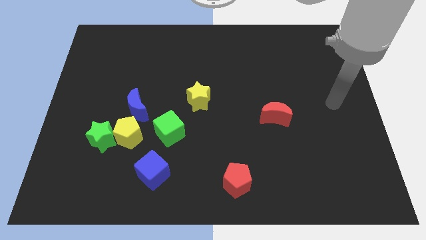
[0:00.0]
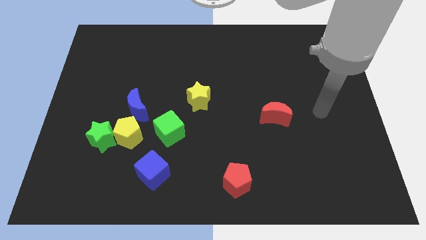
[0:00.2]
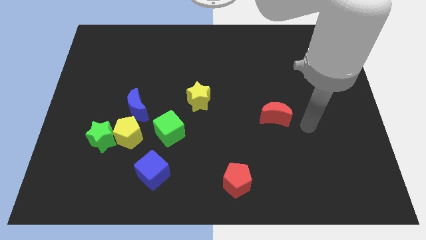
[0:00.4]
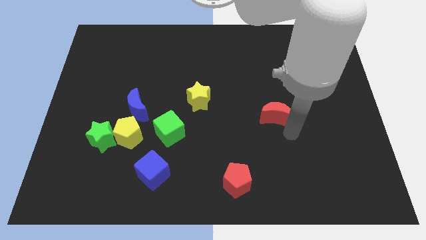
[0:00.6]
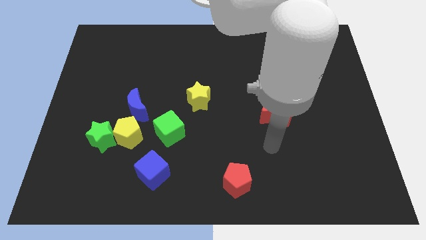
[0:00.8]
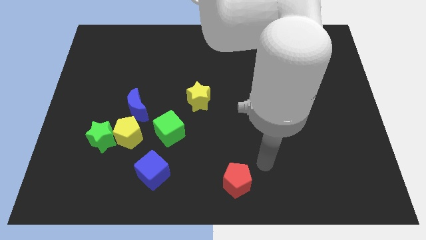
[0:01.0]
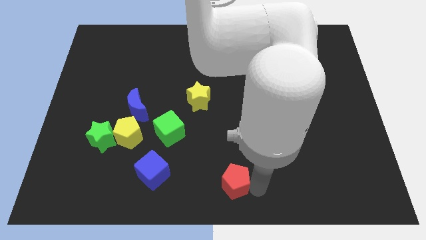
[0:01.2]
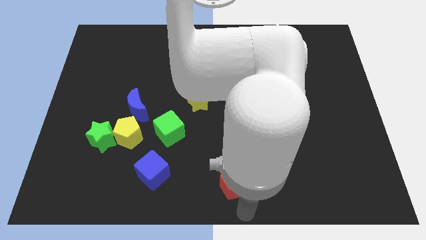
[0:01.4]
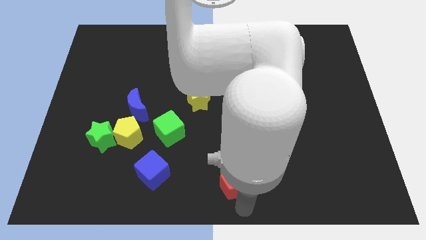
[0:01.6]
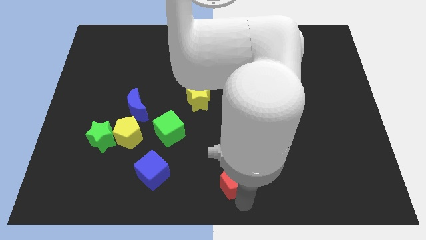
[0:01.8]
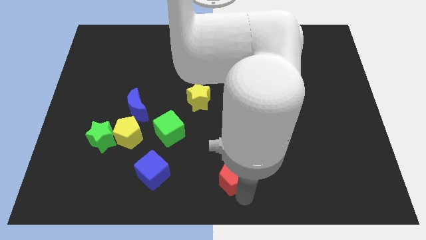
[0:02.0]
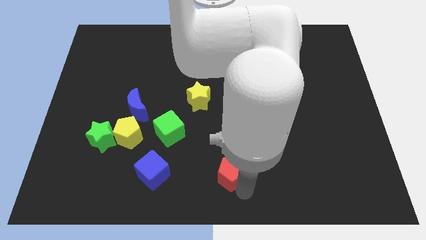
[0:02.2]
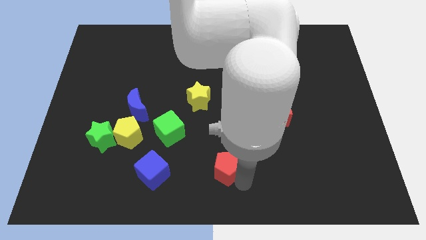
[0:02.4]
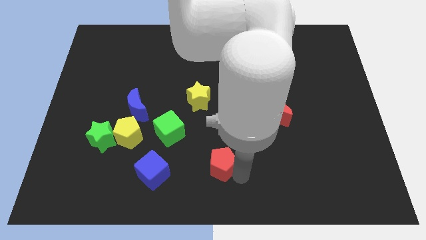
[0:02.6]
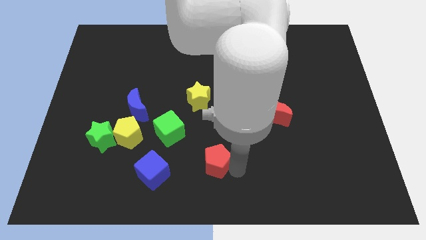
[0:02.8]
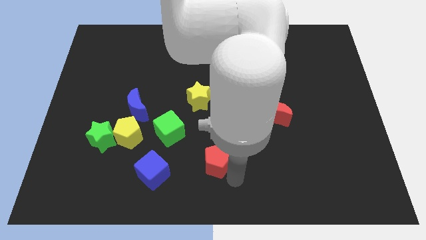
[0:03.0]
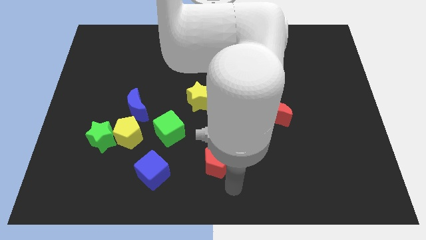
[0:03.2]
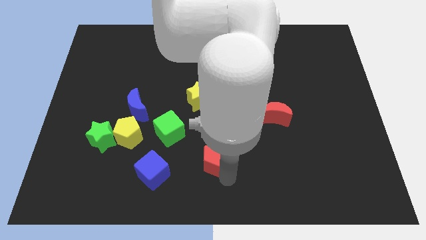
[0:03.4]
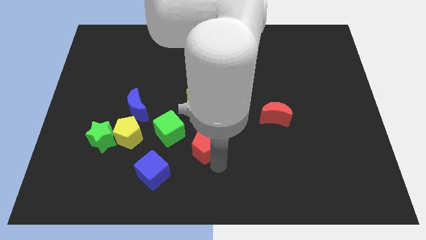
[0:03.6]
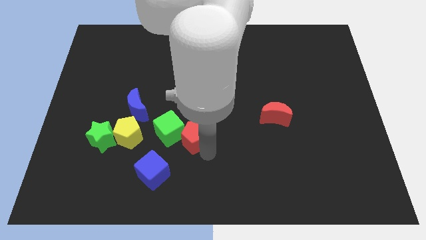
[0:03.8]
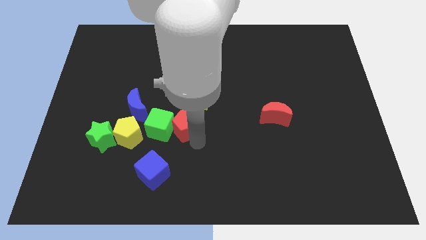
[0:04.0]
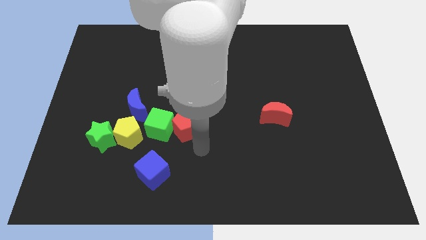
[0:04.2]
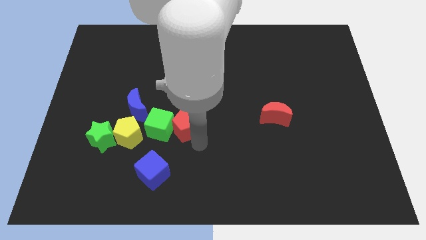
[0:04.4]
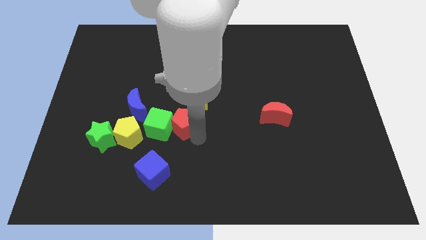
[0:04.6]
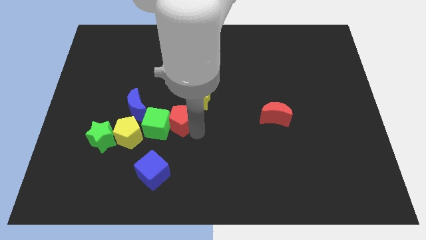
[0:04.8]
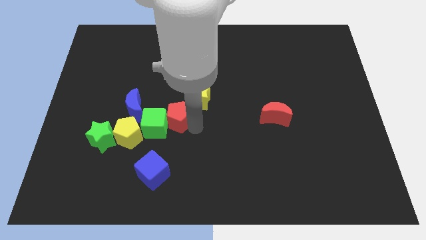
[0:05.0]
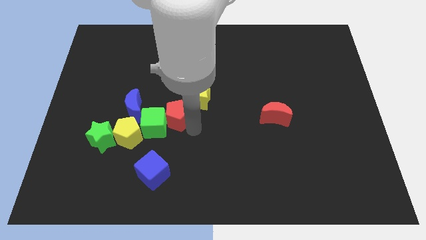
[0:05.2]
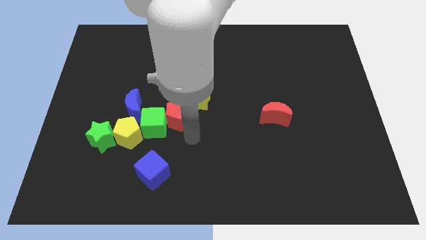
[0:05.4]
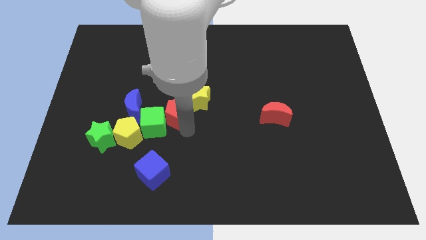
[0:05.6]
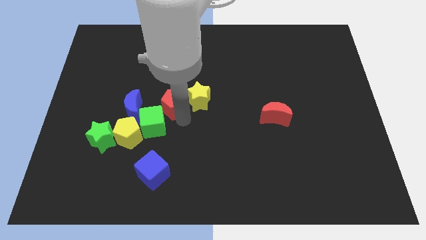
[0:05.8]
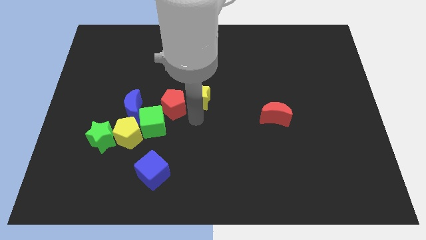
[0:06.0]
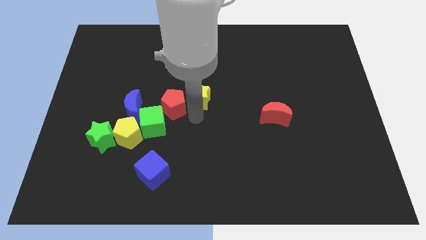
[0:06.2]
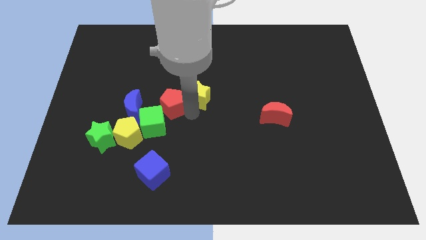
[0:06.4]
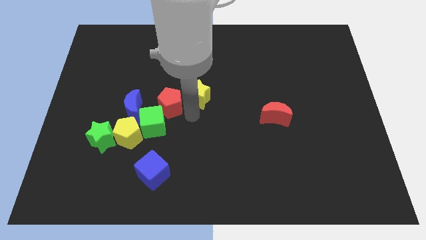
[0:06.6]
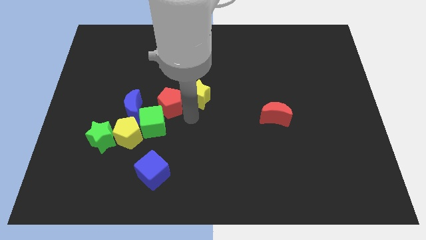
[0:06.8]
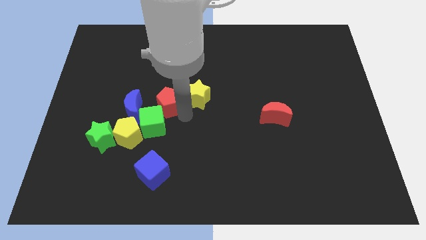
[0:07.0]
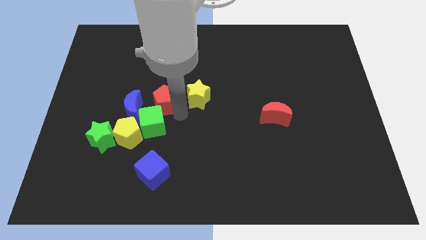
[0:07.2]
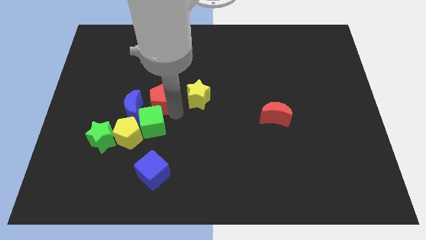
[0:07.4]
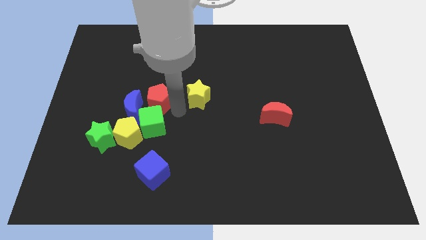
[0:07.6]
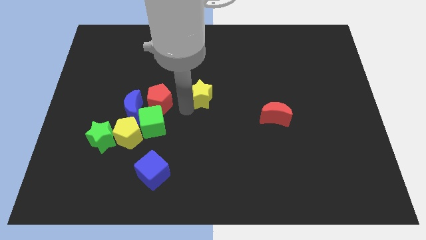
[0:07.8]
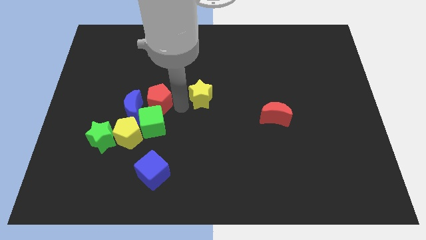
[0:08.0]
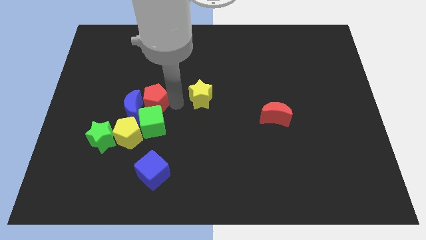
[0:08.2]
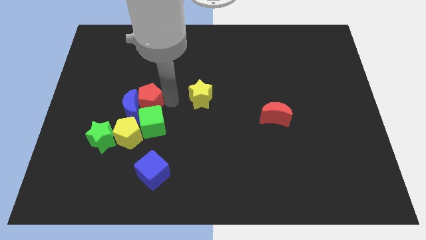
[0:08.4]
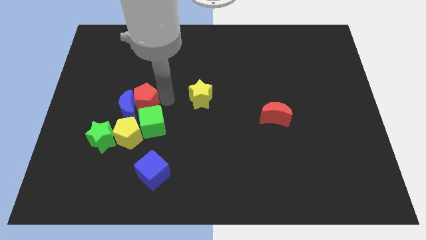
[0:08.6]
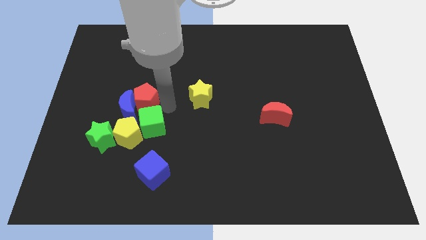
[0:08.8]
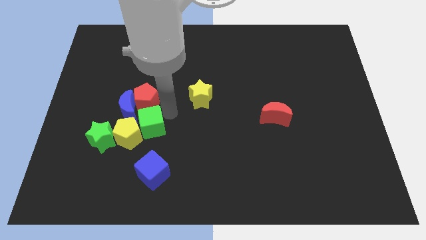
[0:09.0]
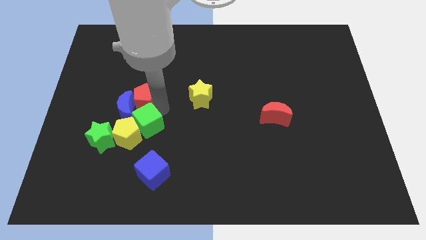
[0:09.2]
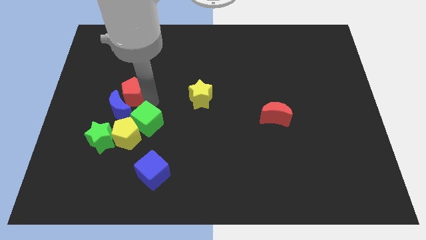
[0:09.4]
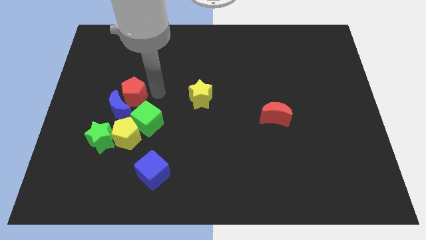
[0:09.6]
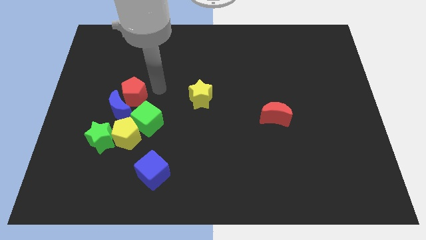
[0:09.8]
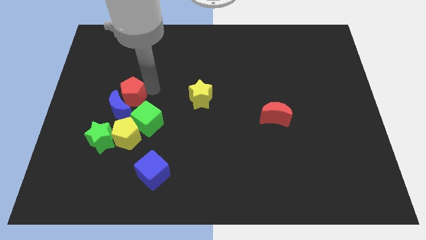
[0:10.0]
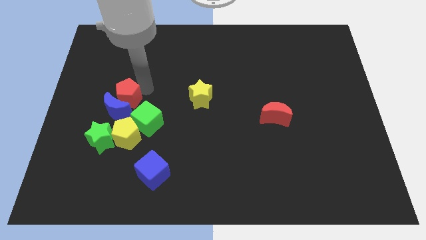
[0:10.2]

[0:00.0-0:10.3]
slide the red pentagon above the green star

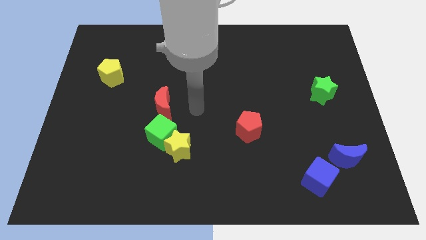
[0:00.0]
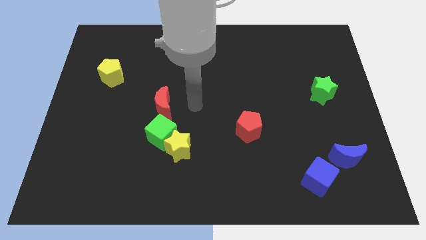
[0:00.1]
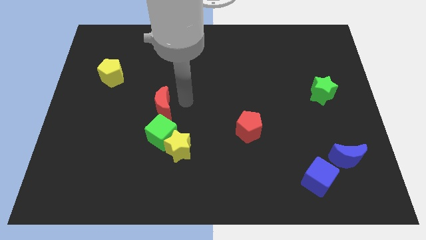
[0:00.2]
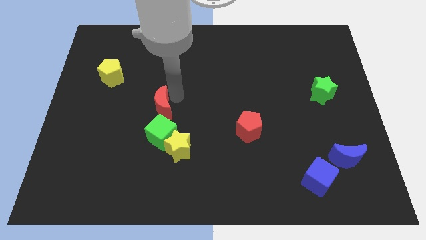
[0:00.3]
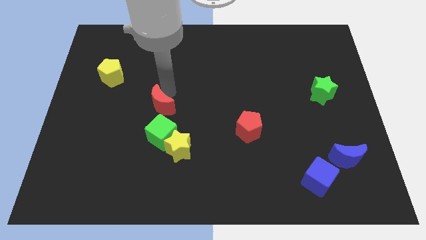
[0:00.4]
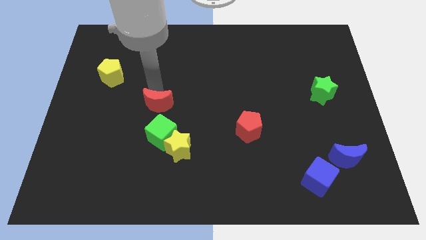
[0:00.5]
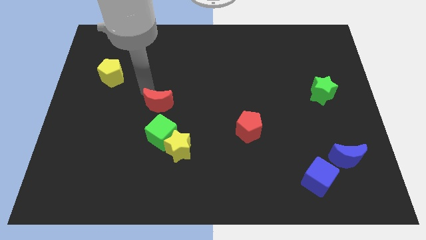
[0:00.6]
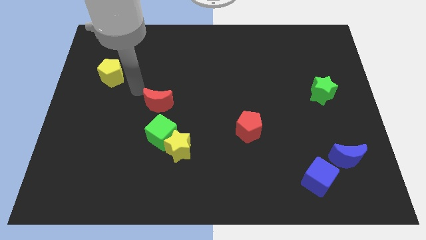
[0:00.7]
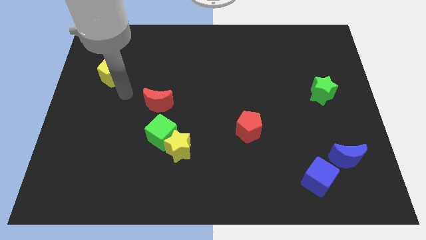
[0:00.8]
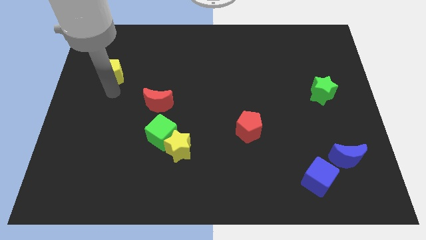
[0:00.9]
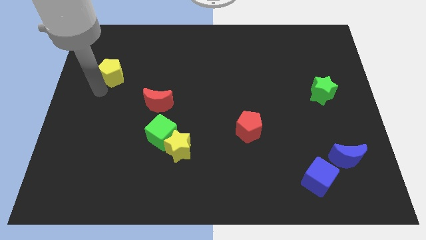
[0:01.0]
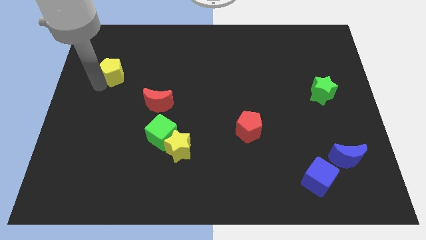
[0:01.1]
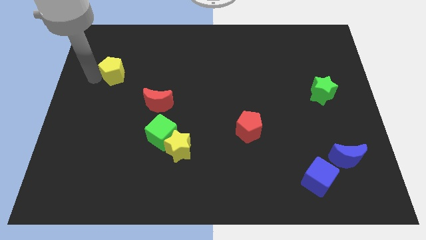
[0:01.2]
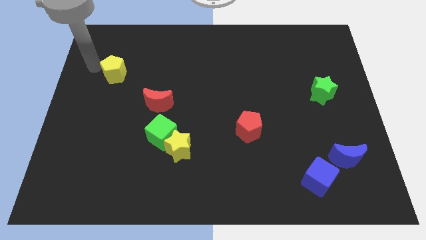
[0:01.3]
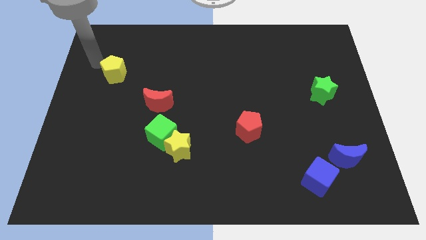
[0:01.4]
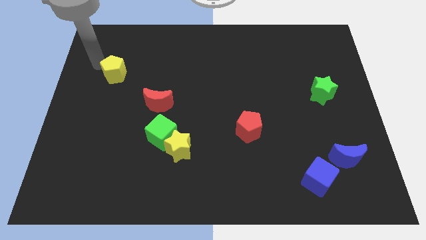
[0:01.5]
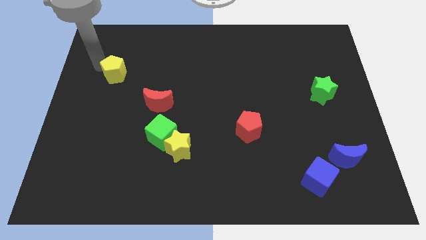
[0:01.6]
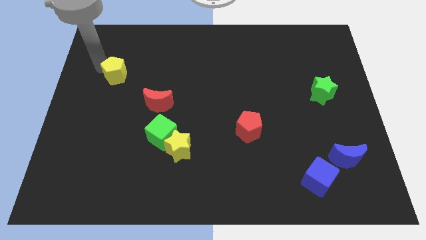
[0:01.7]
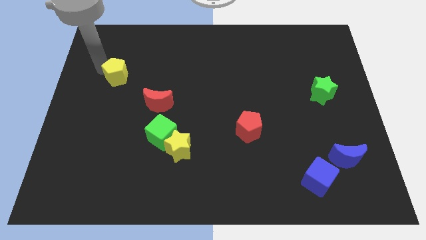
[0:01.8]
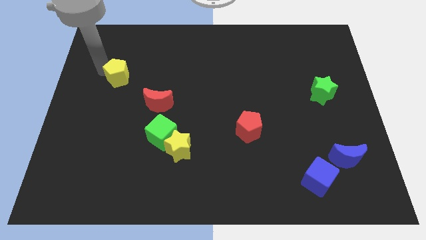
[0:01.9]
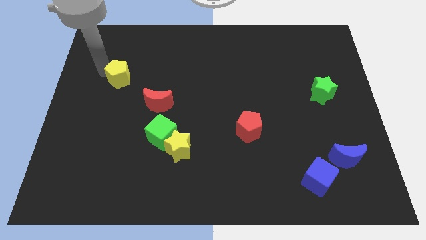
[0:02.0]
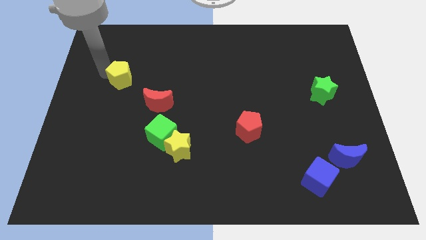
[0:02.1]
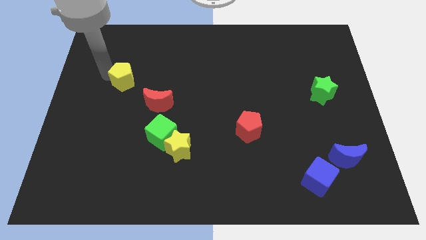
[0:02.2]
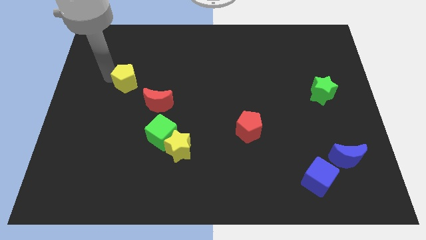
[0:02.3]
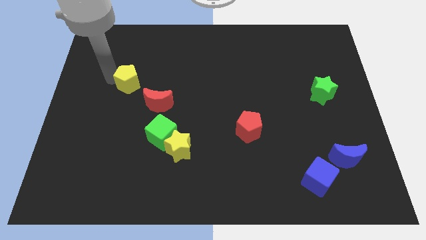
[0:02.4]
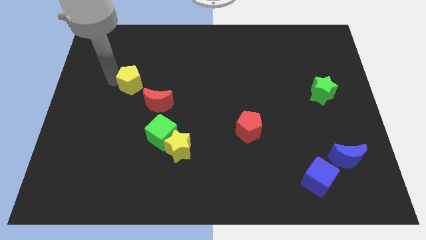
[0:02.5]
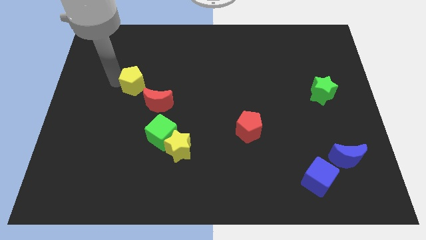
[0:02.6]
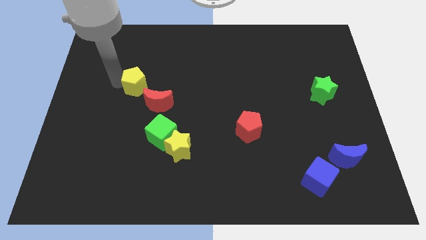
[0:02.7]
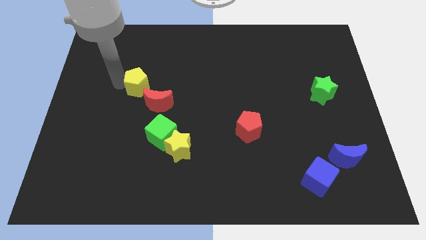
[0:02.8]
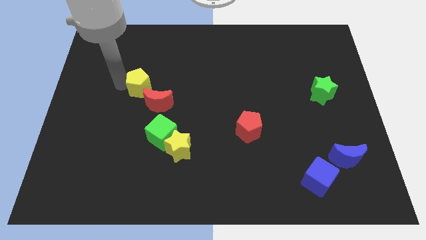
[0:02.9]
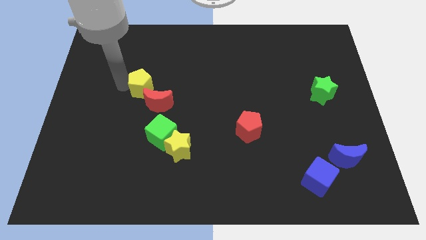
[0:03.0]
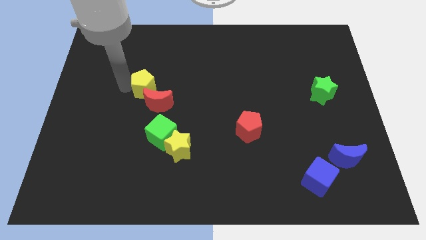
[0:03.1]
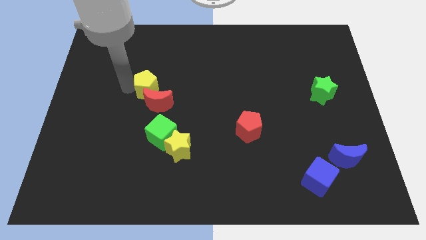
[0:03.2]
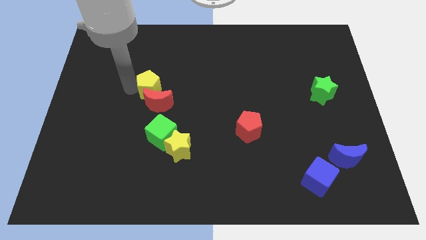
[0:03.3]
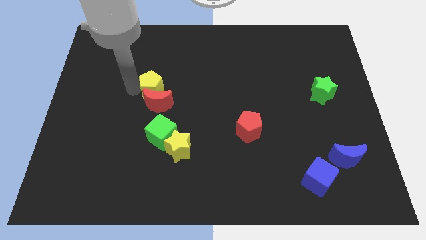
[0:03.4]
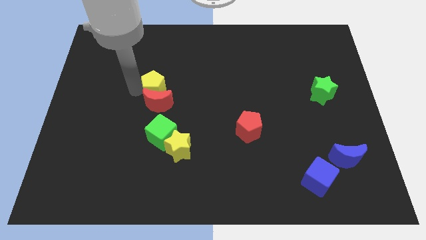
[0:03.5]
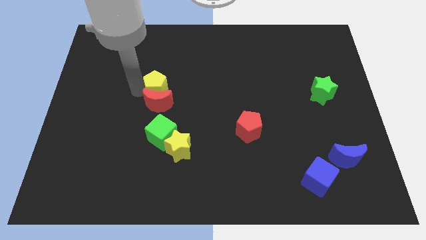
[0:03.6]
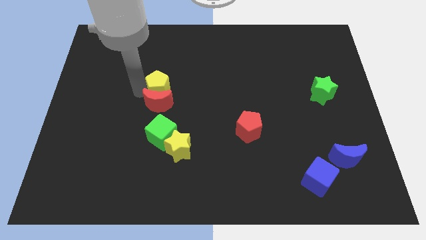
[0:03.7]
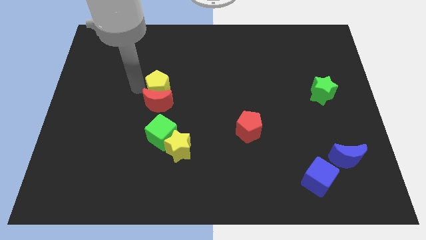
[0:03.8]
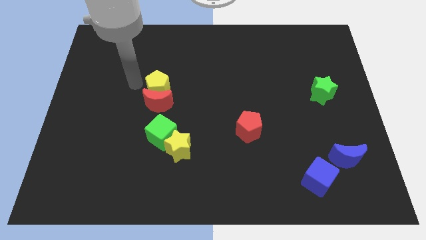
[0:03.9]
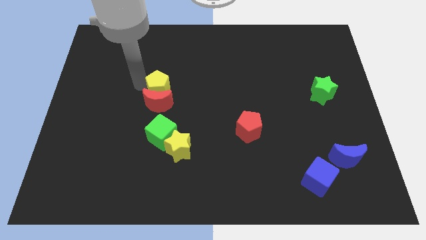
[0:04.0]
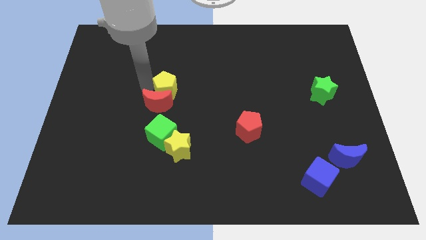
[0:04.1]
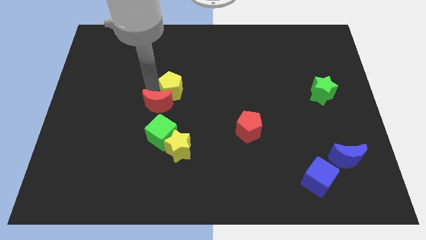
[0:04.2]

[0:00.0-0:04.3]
put the yellow pentagon to the right side of the red moon
